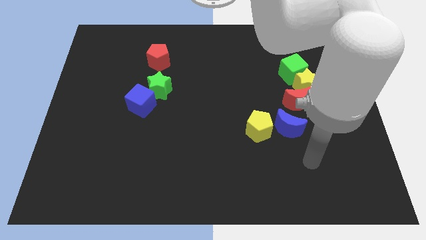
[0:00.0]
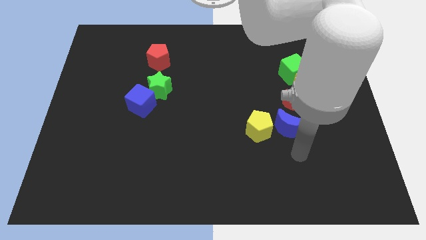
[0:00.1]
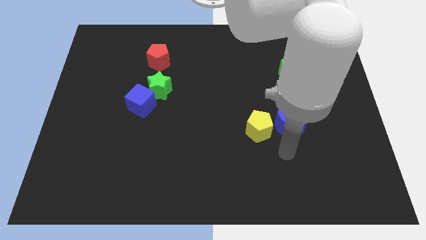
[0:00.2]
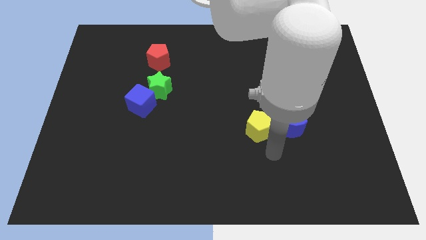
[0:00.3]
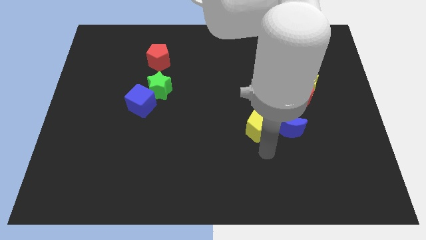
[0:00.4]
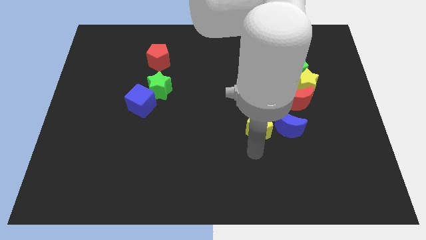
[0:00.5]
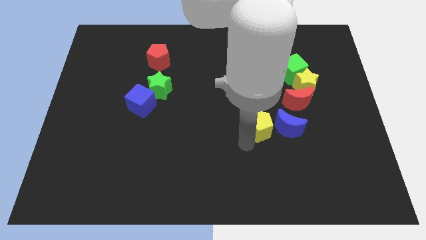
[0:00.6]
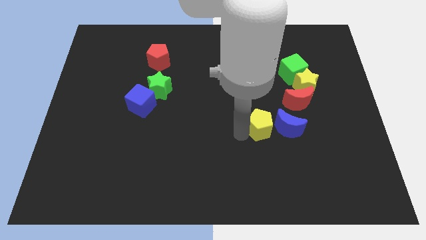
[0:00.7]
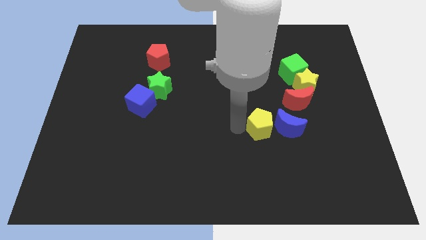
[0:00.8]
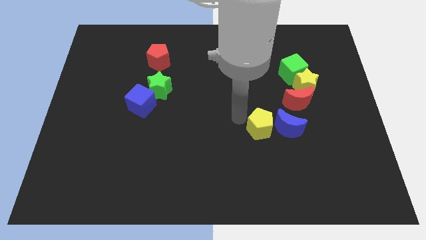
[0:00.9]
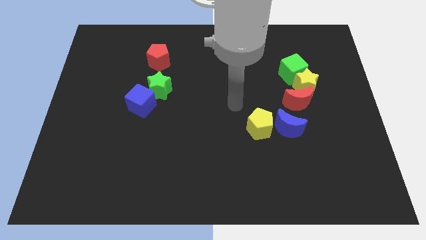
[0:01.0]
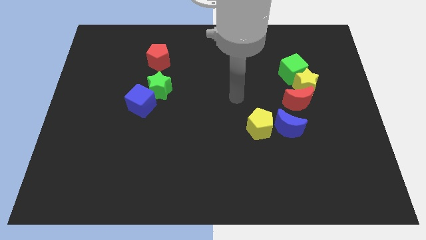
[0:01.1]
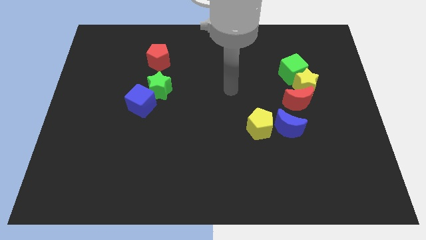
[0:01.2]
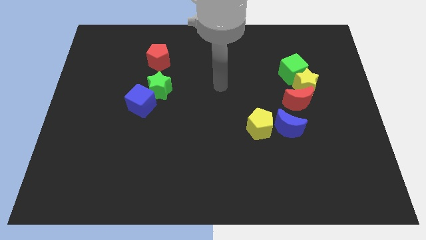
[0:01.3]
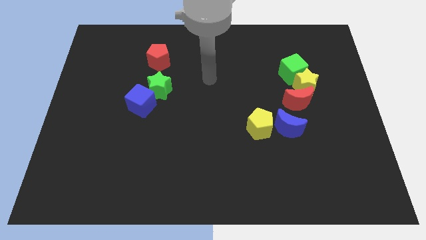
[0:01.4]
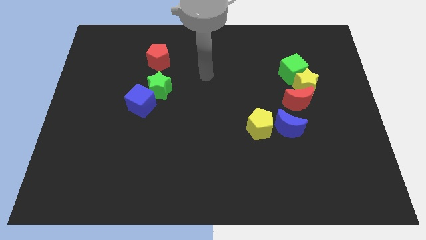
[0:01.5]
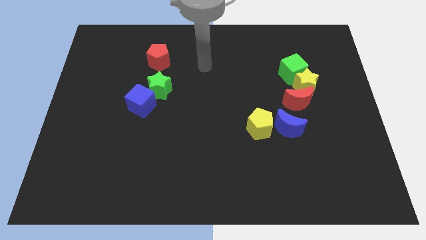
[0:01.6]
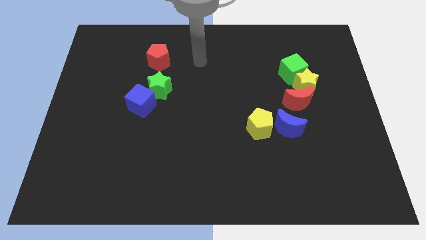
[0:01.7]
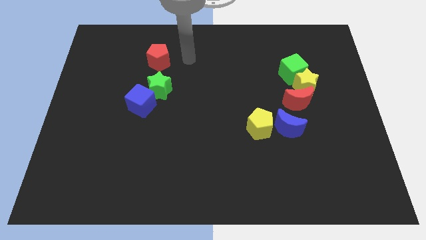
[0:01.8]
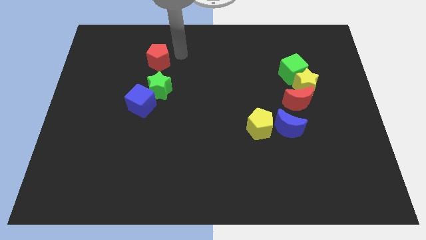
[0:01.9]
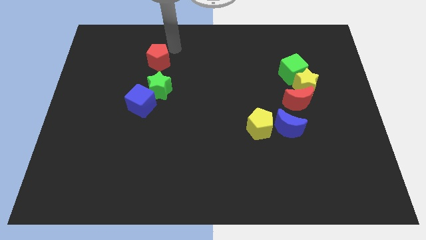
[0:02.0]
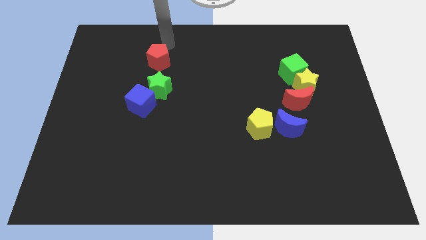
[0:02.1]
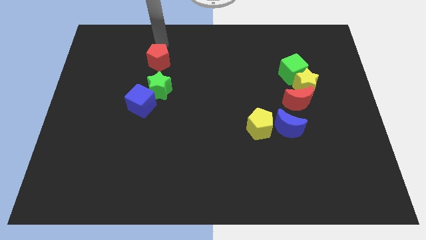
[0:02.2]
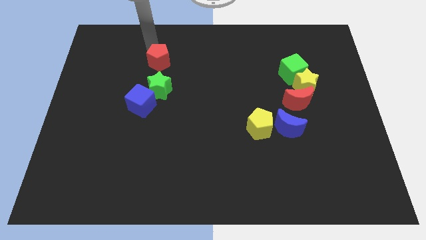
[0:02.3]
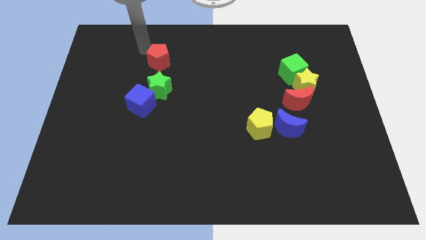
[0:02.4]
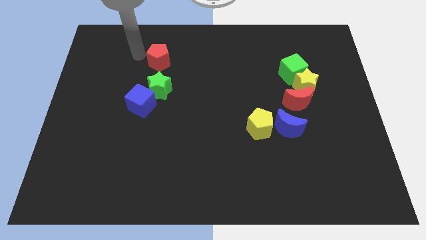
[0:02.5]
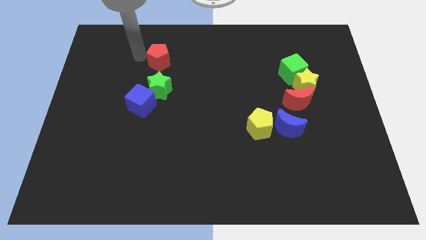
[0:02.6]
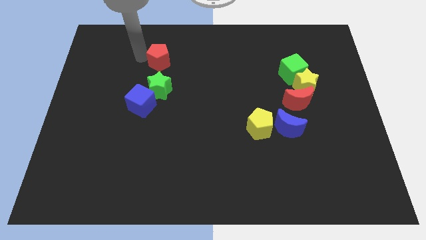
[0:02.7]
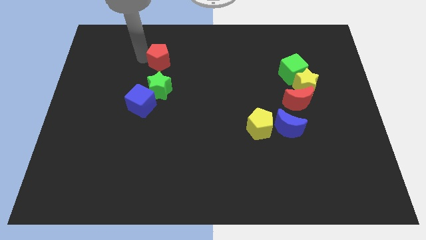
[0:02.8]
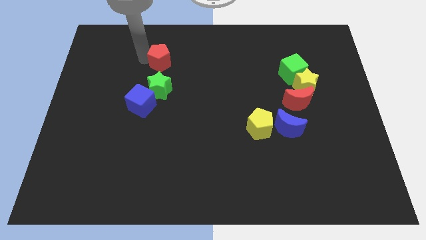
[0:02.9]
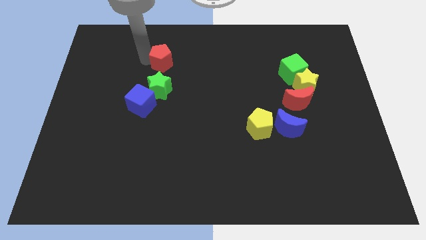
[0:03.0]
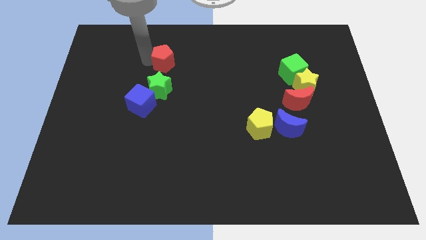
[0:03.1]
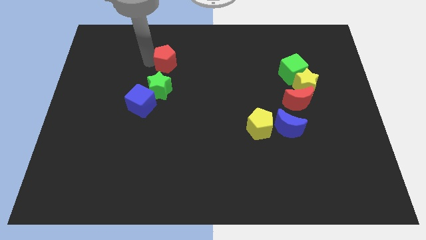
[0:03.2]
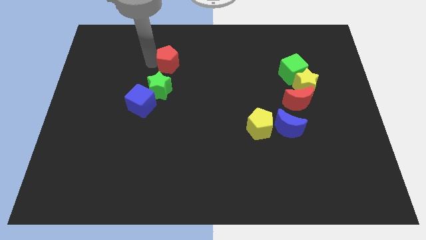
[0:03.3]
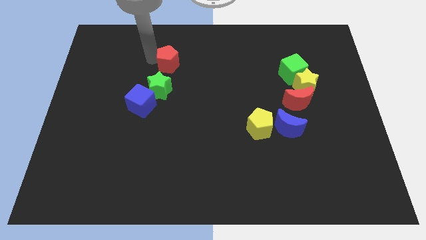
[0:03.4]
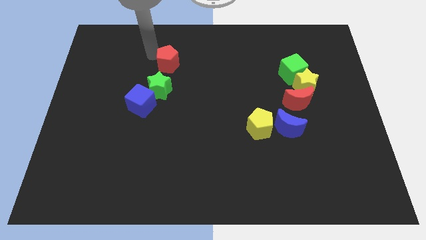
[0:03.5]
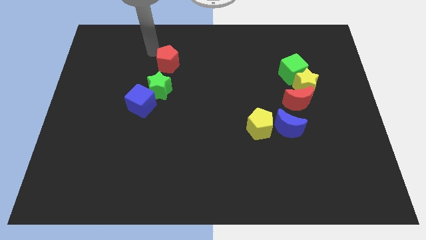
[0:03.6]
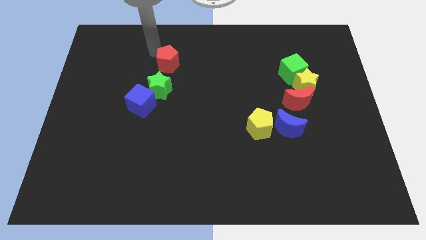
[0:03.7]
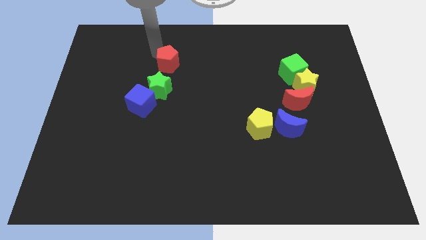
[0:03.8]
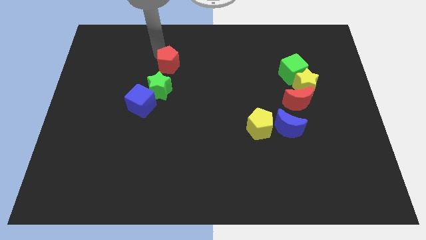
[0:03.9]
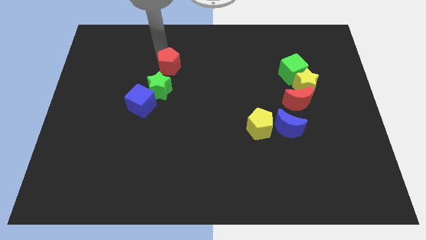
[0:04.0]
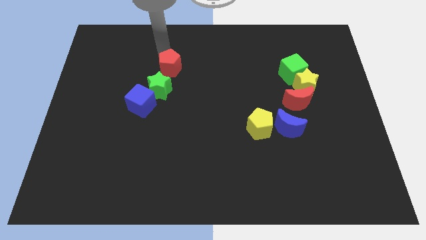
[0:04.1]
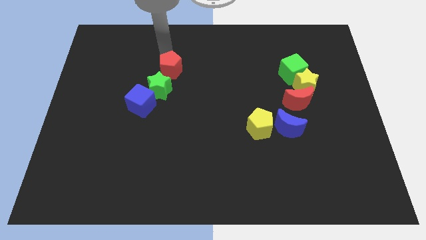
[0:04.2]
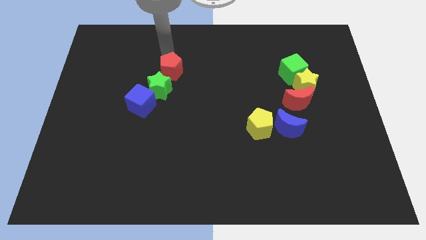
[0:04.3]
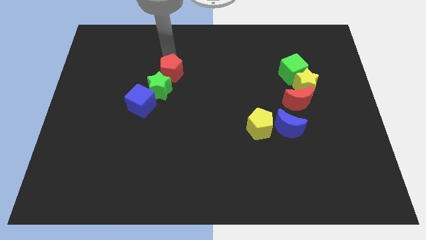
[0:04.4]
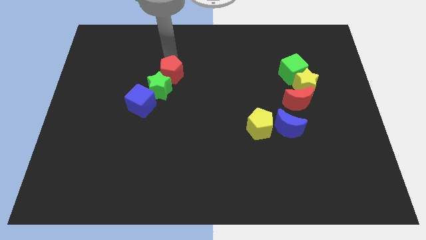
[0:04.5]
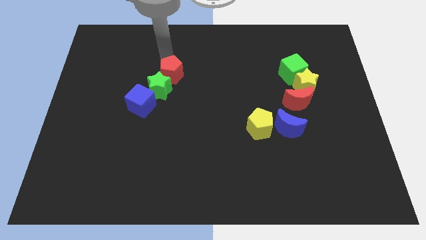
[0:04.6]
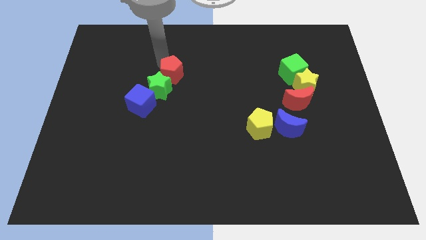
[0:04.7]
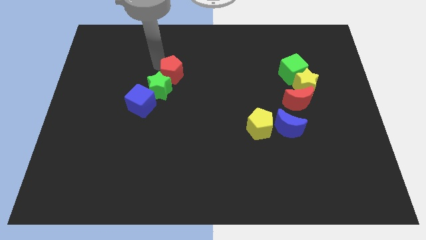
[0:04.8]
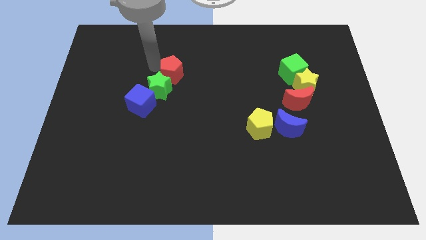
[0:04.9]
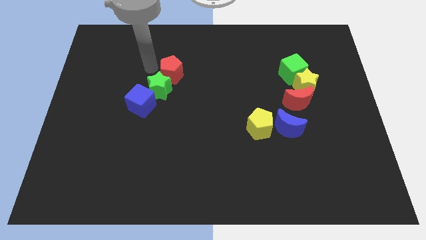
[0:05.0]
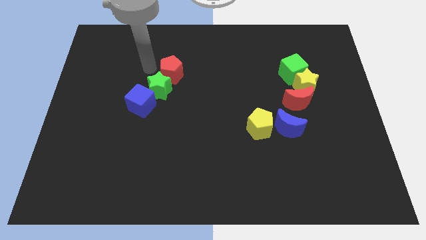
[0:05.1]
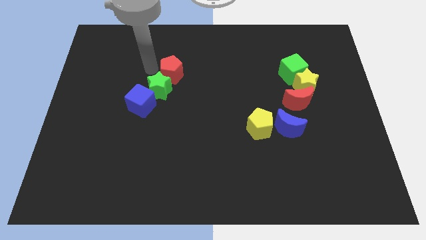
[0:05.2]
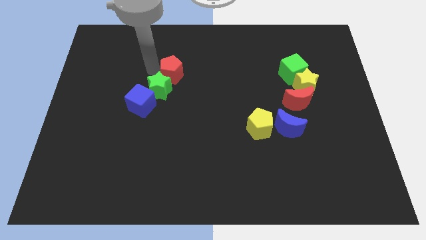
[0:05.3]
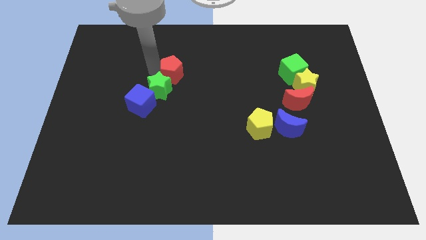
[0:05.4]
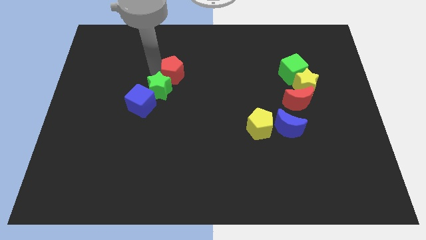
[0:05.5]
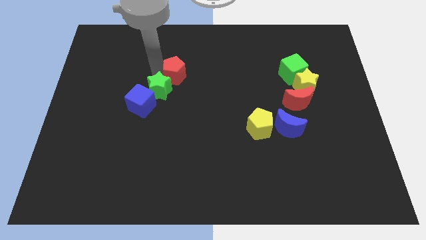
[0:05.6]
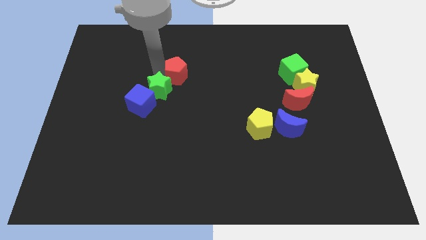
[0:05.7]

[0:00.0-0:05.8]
slightly push the red pentagon downwards and right diagonally

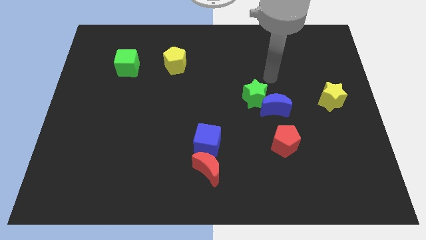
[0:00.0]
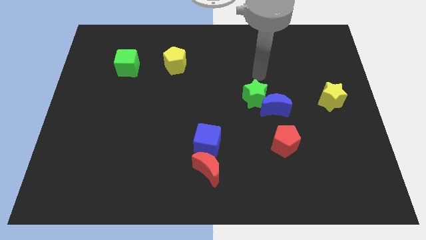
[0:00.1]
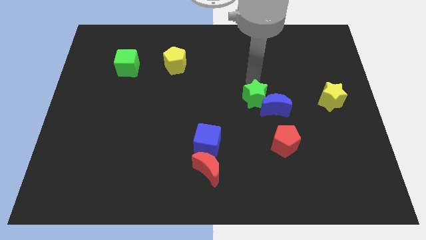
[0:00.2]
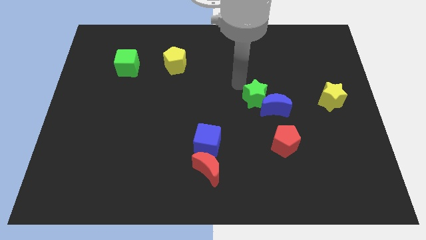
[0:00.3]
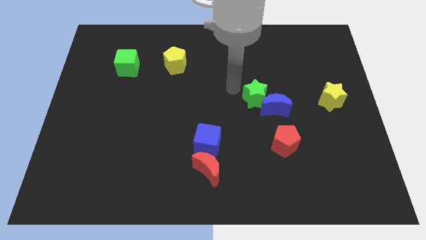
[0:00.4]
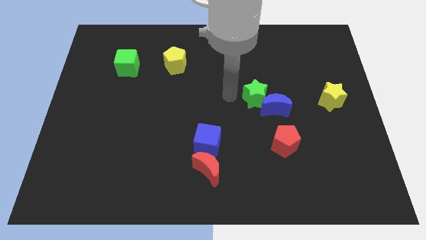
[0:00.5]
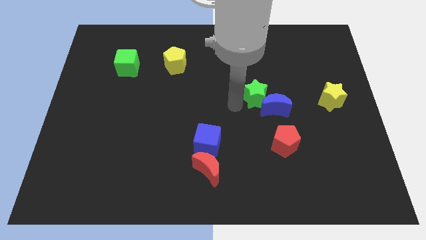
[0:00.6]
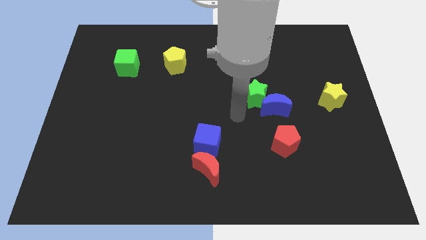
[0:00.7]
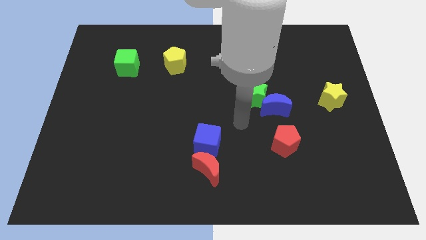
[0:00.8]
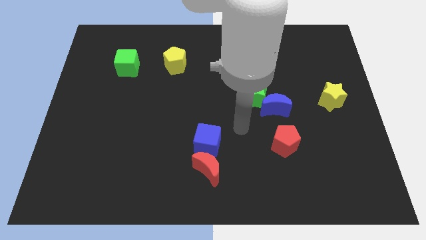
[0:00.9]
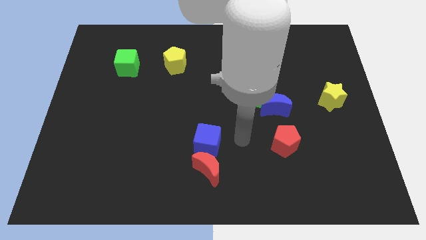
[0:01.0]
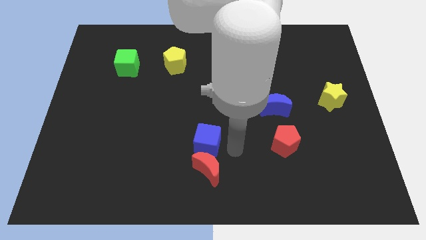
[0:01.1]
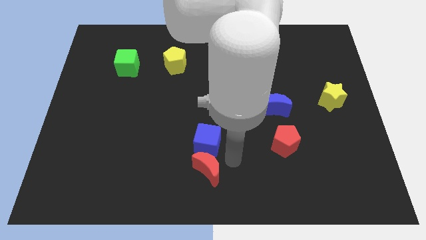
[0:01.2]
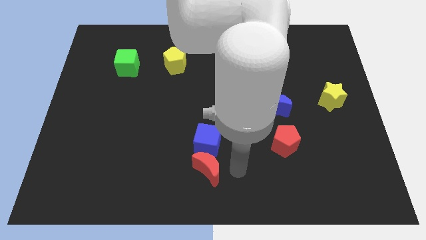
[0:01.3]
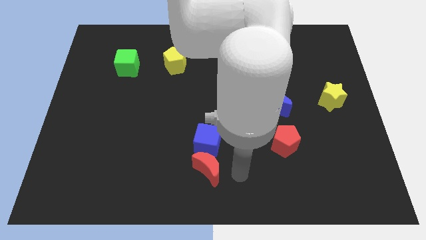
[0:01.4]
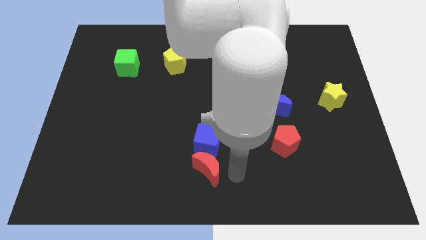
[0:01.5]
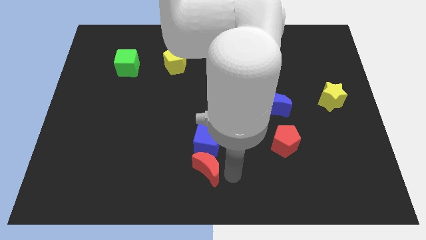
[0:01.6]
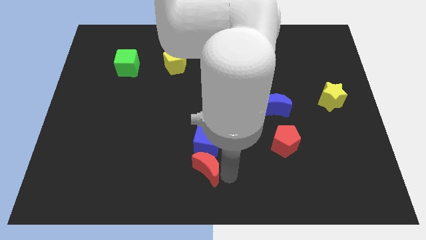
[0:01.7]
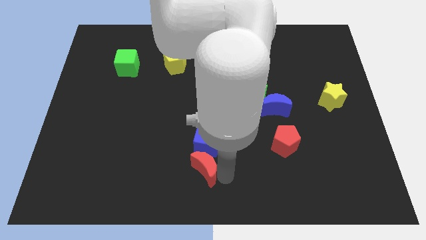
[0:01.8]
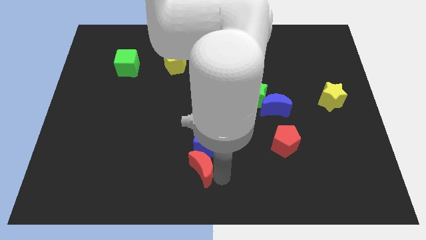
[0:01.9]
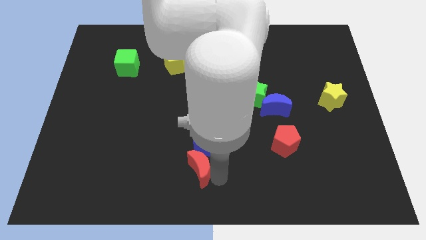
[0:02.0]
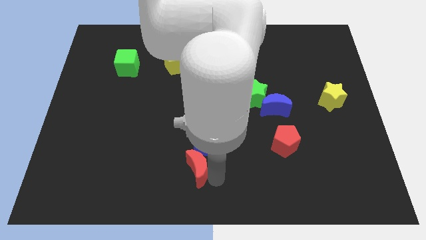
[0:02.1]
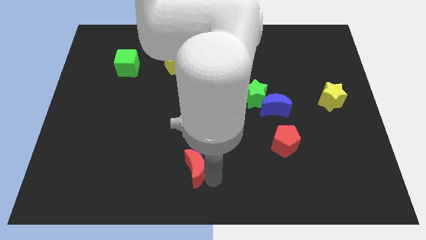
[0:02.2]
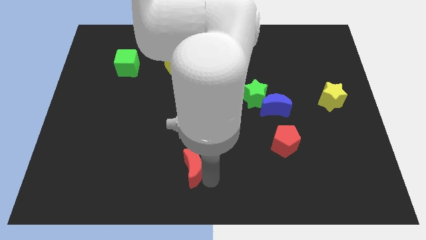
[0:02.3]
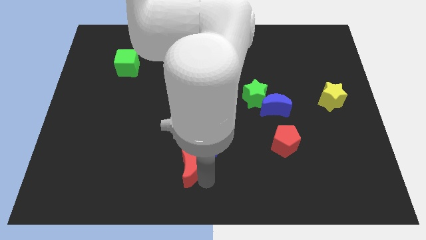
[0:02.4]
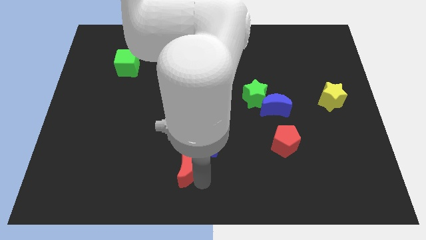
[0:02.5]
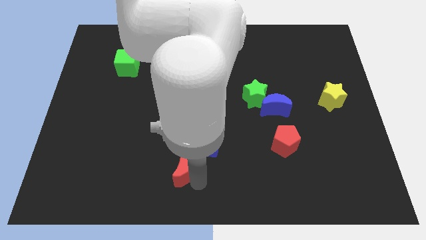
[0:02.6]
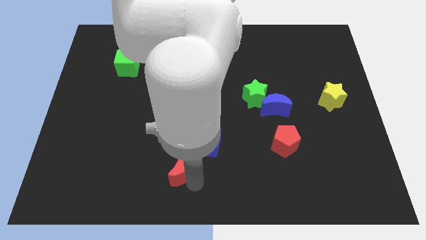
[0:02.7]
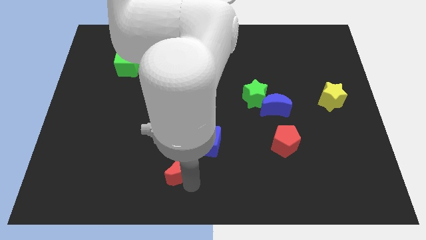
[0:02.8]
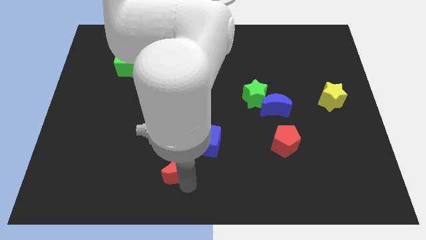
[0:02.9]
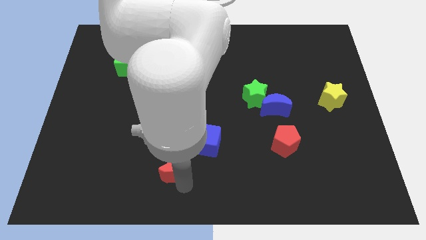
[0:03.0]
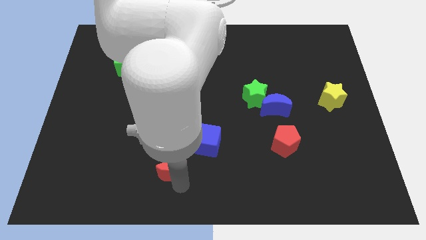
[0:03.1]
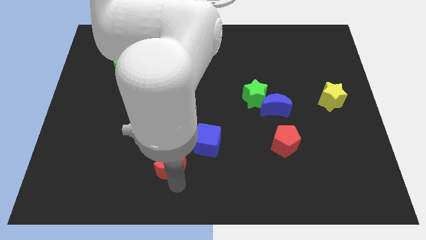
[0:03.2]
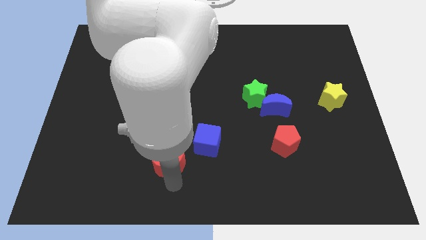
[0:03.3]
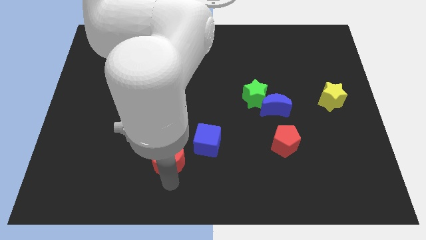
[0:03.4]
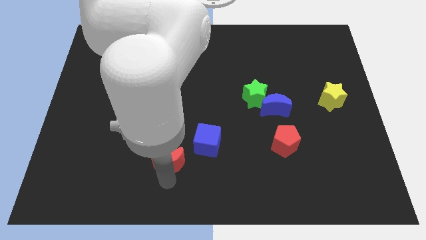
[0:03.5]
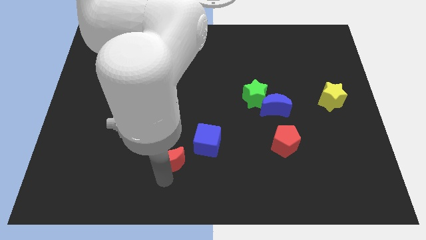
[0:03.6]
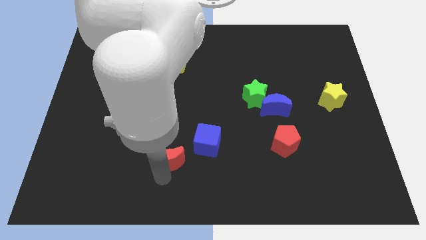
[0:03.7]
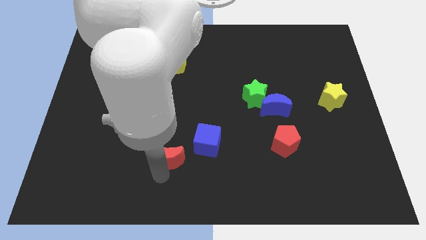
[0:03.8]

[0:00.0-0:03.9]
slide the red moon a bit up and then left
